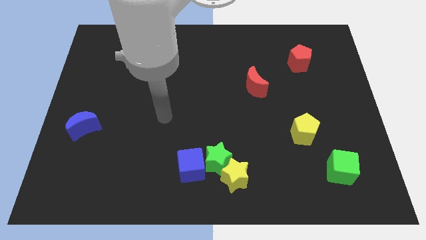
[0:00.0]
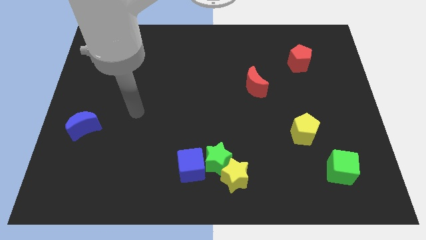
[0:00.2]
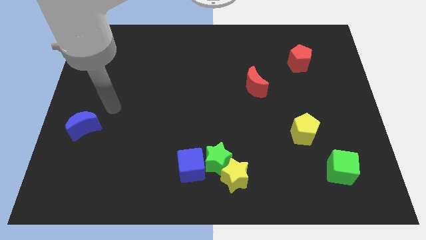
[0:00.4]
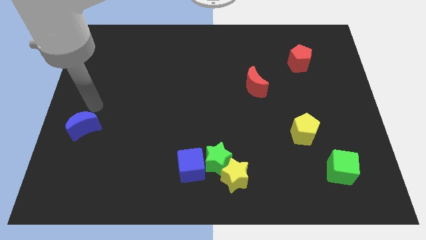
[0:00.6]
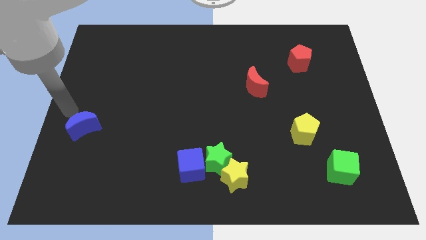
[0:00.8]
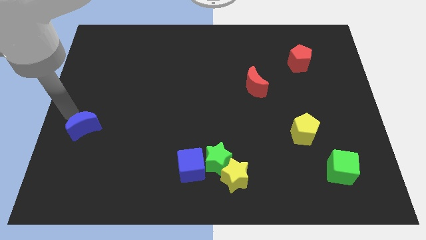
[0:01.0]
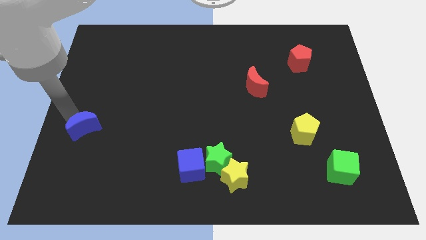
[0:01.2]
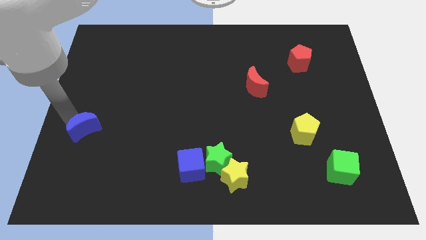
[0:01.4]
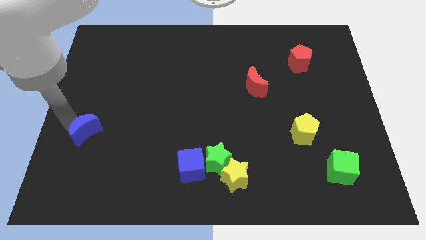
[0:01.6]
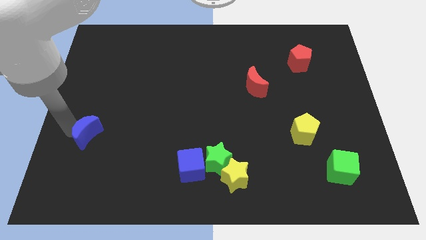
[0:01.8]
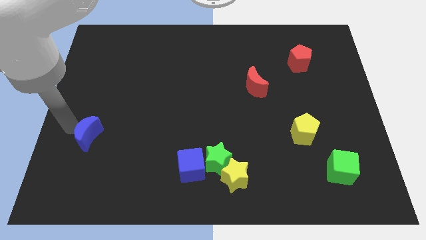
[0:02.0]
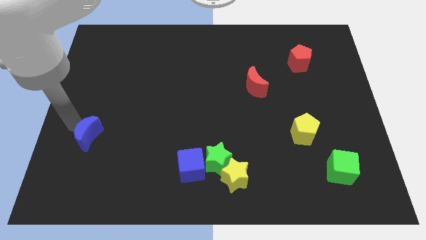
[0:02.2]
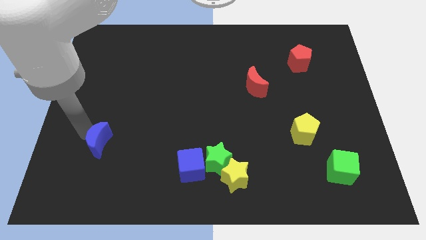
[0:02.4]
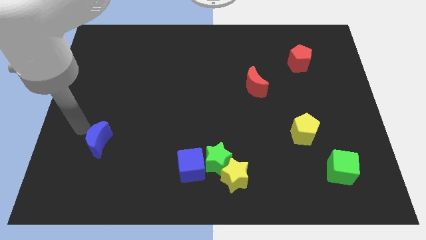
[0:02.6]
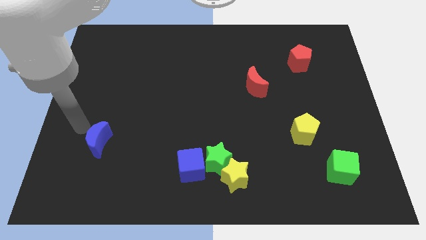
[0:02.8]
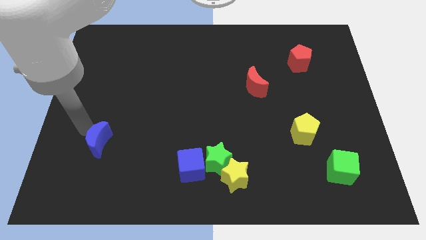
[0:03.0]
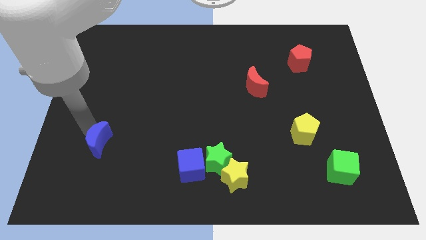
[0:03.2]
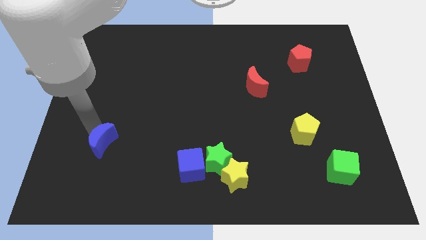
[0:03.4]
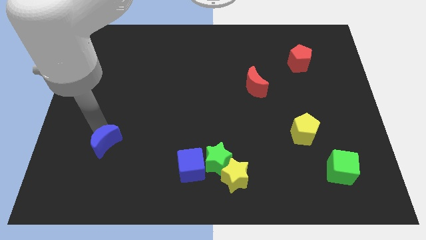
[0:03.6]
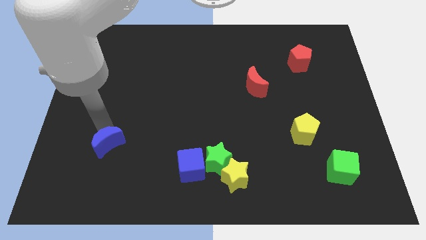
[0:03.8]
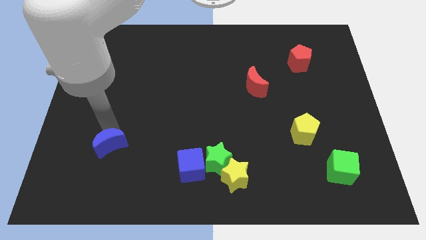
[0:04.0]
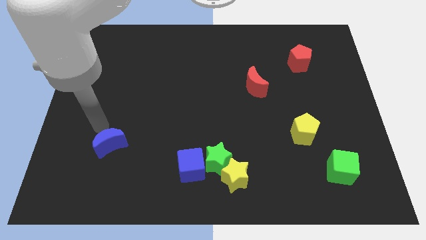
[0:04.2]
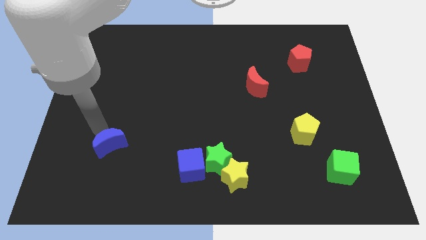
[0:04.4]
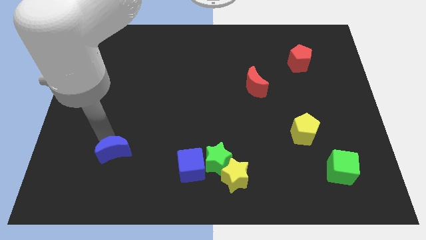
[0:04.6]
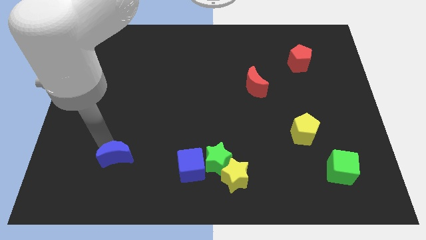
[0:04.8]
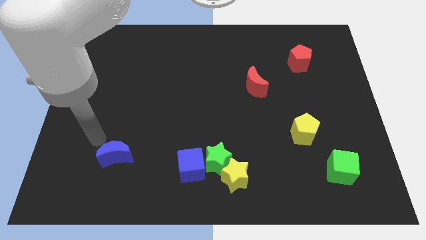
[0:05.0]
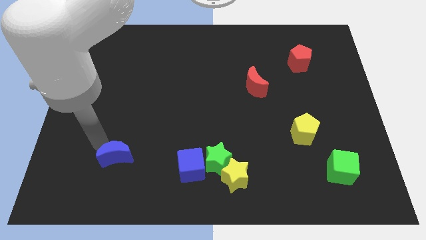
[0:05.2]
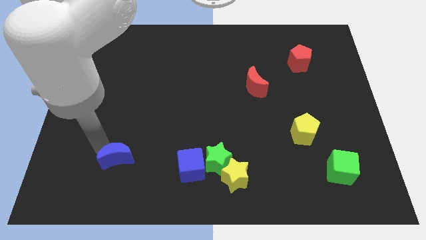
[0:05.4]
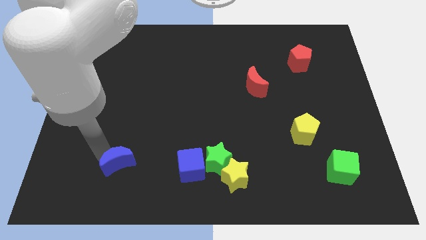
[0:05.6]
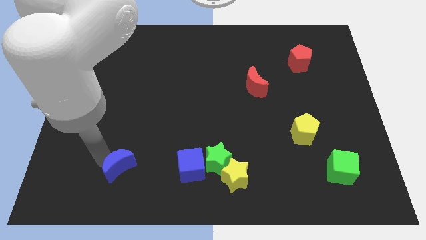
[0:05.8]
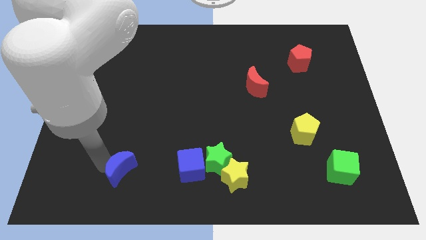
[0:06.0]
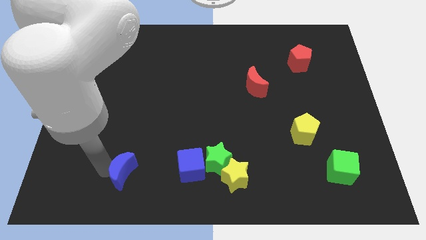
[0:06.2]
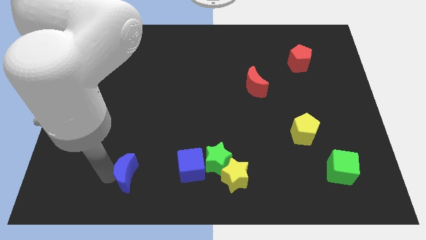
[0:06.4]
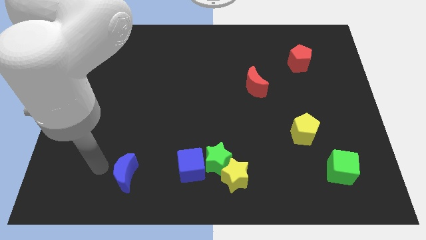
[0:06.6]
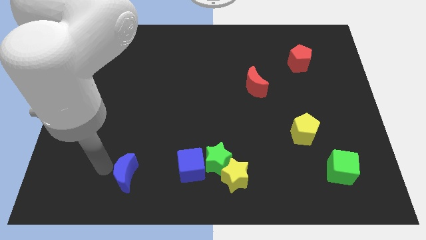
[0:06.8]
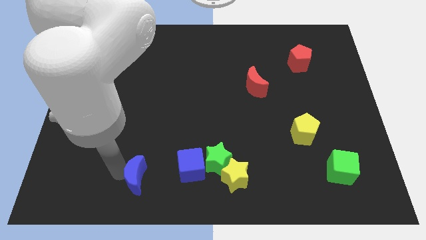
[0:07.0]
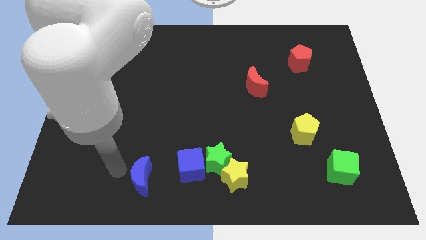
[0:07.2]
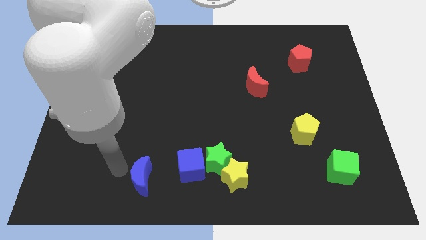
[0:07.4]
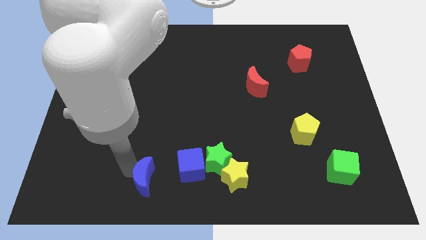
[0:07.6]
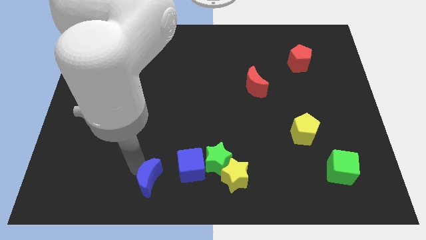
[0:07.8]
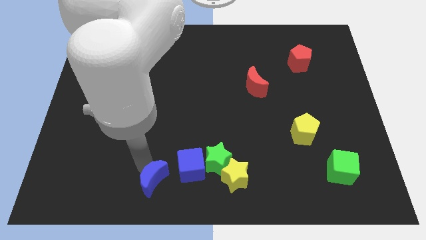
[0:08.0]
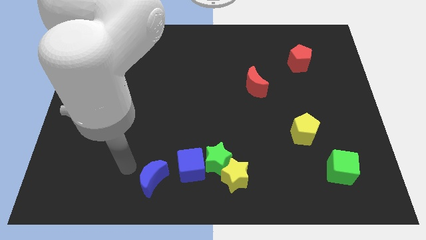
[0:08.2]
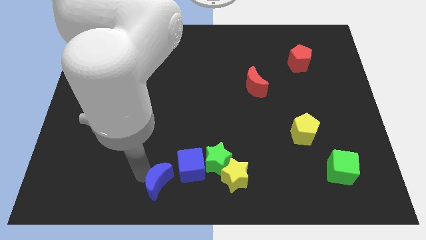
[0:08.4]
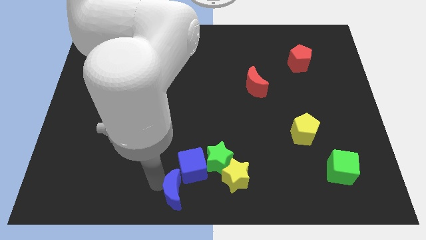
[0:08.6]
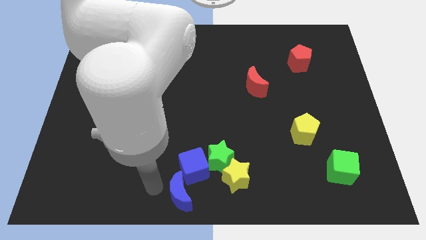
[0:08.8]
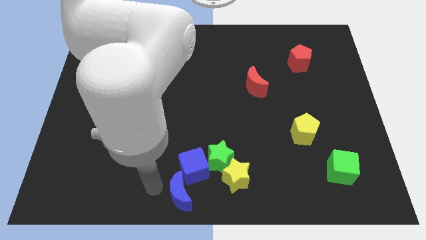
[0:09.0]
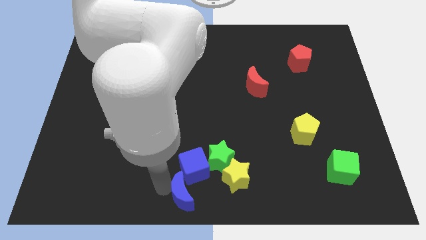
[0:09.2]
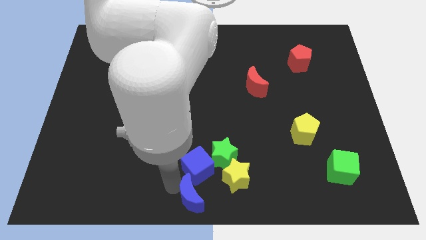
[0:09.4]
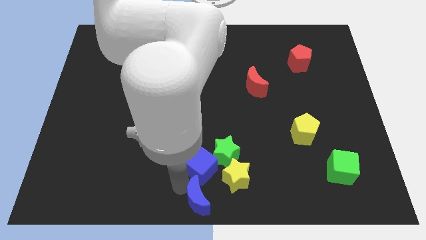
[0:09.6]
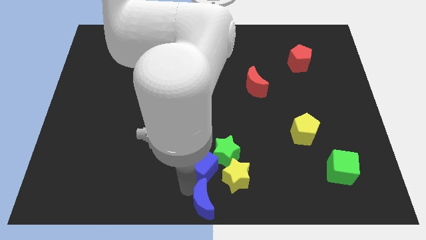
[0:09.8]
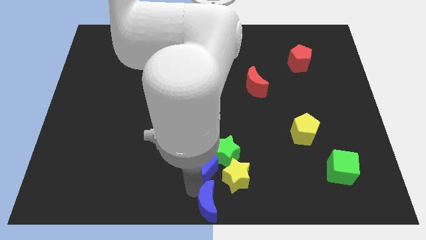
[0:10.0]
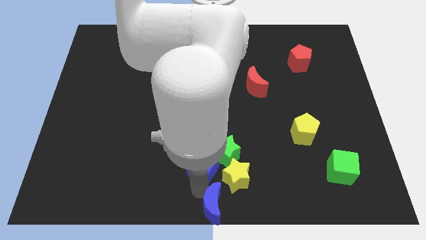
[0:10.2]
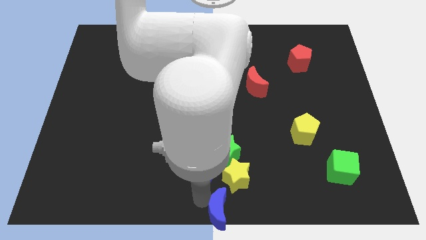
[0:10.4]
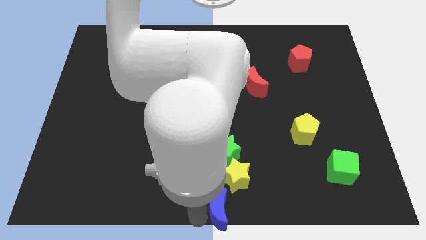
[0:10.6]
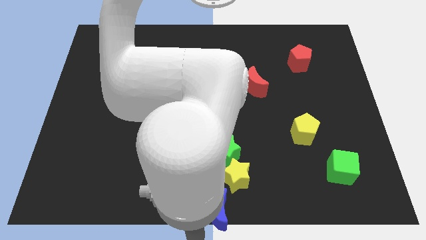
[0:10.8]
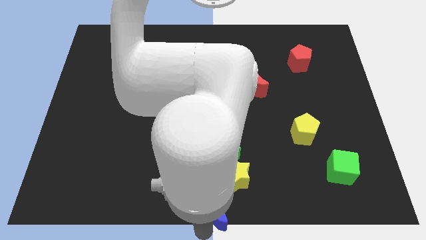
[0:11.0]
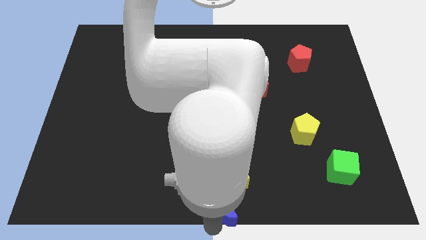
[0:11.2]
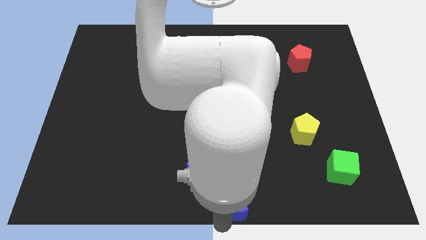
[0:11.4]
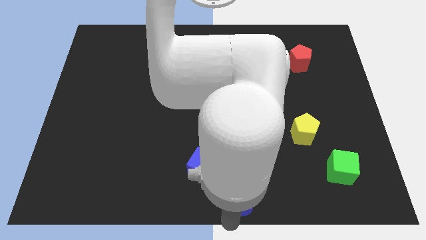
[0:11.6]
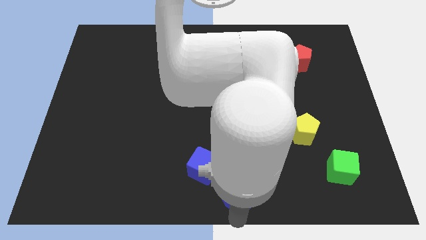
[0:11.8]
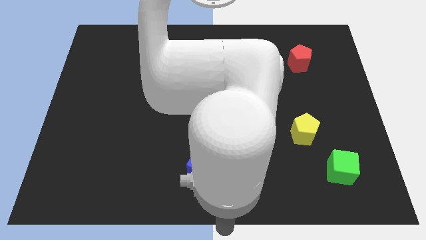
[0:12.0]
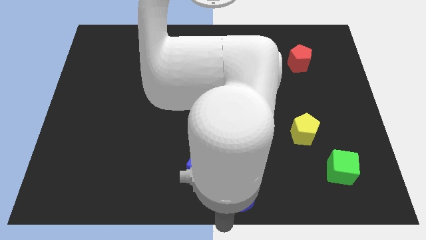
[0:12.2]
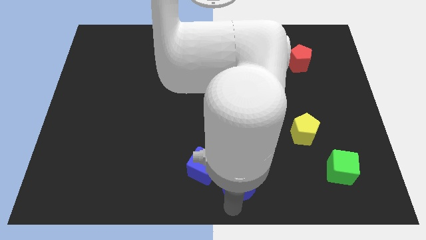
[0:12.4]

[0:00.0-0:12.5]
put the blue moon diagonally down and to the right of the green star
